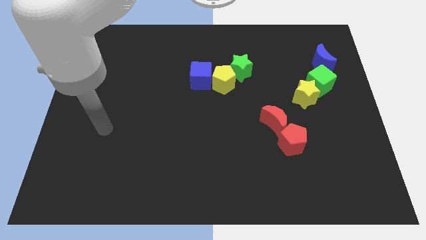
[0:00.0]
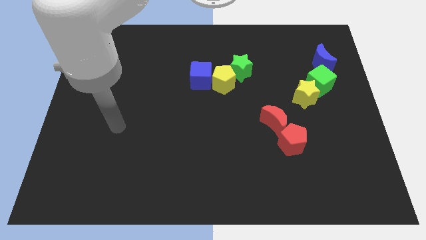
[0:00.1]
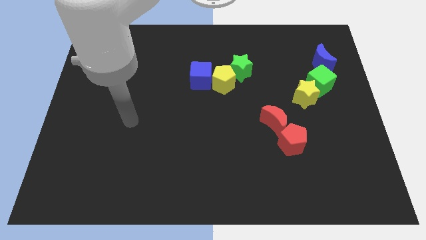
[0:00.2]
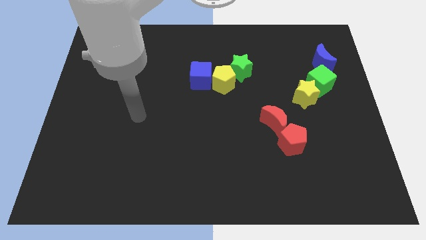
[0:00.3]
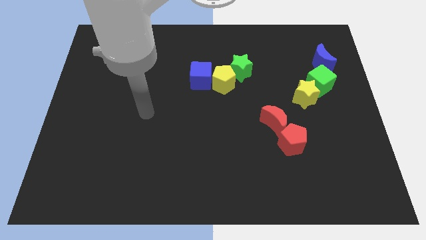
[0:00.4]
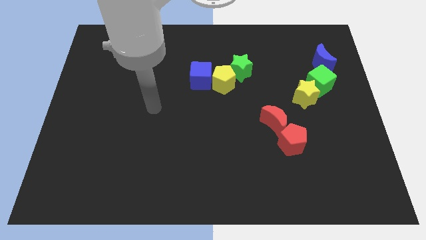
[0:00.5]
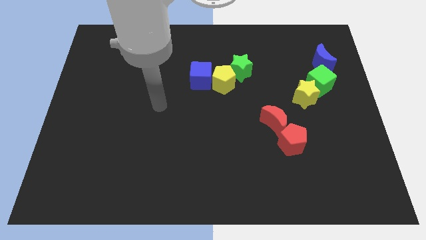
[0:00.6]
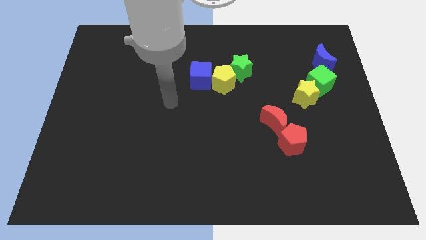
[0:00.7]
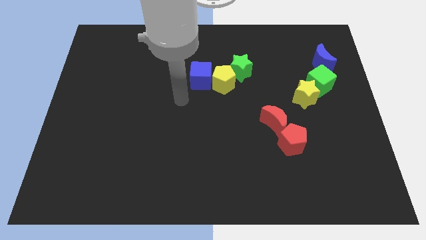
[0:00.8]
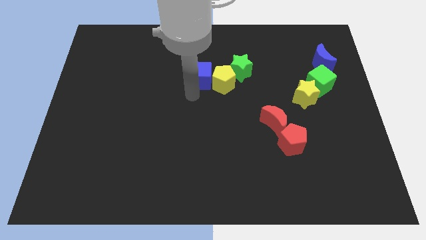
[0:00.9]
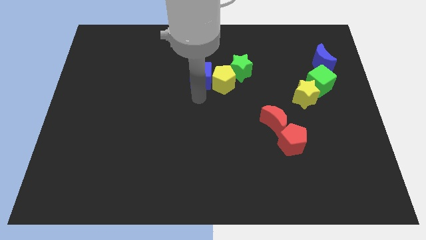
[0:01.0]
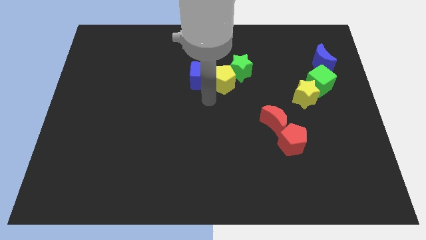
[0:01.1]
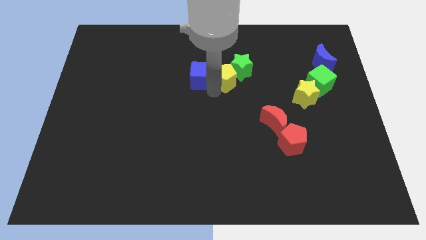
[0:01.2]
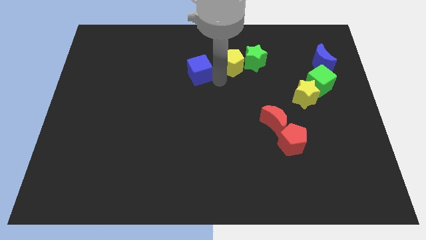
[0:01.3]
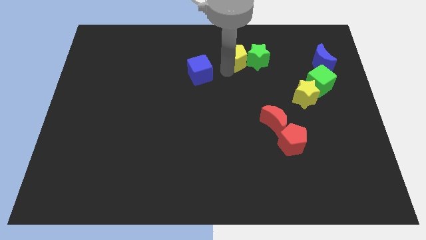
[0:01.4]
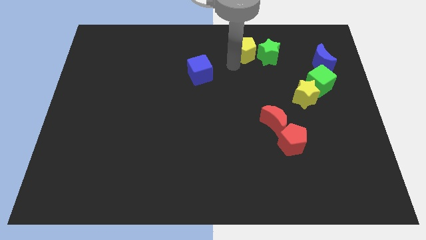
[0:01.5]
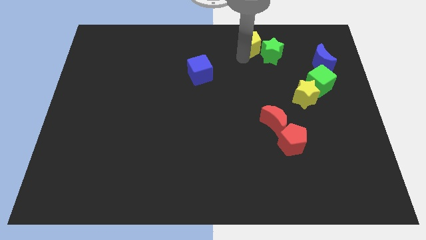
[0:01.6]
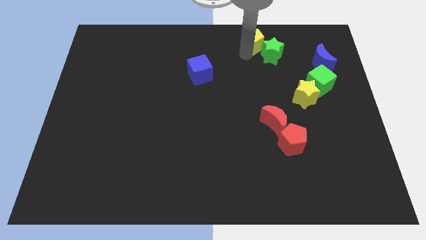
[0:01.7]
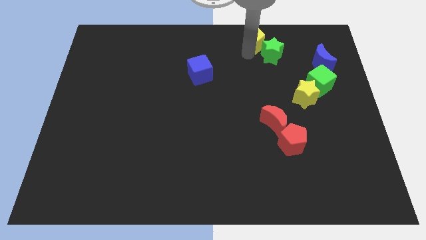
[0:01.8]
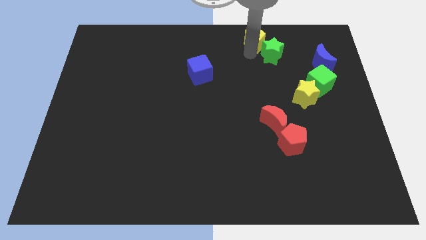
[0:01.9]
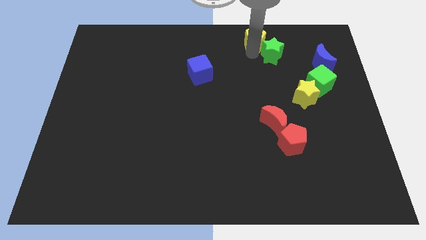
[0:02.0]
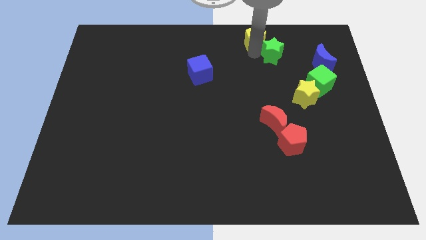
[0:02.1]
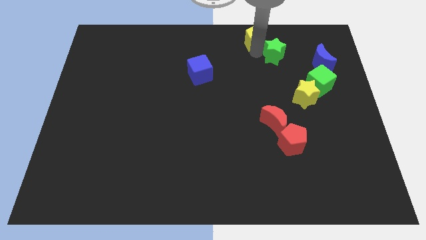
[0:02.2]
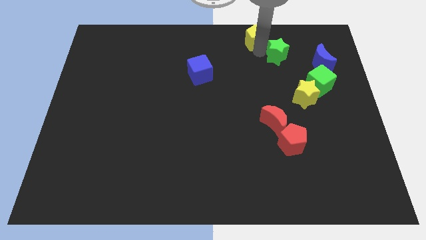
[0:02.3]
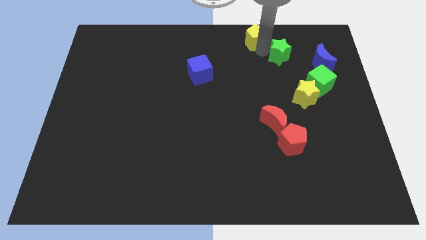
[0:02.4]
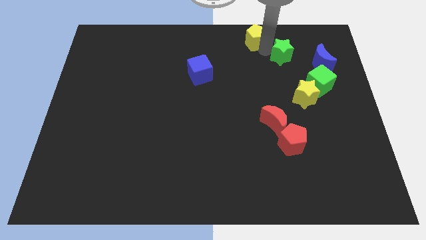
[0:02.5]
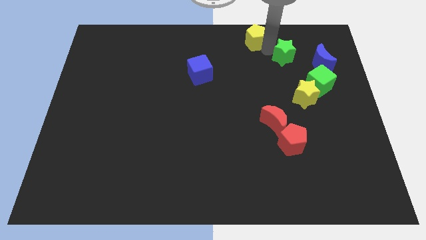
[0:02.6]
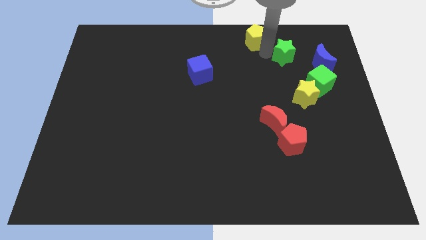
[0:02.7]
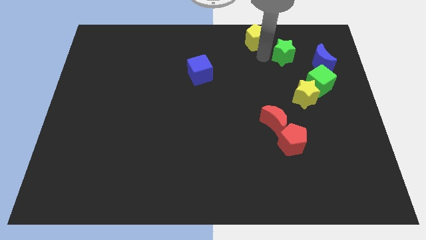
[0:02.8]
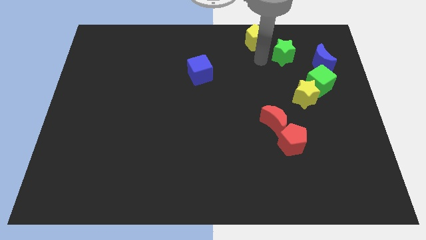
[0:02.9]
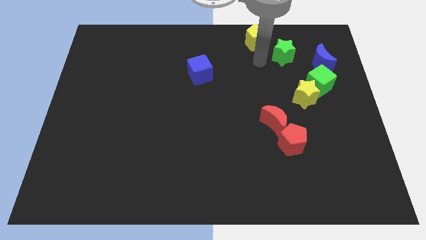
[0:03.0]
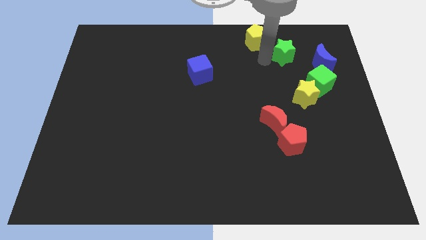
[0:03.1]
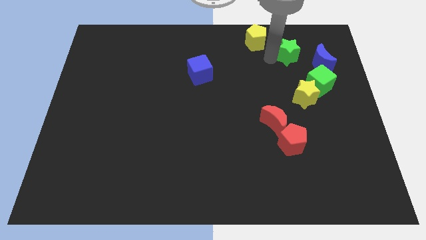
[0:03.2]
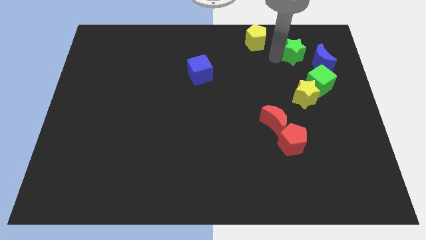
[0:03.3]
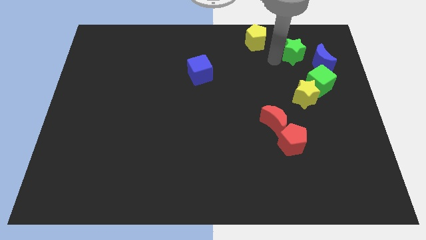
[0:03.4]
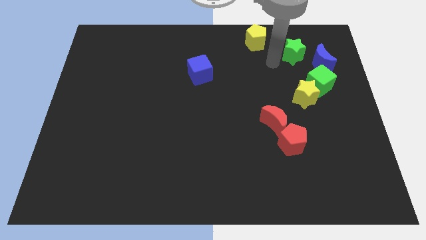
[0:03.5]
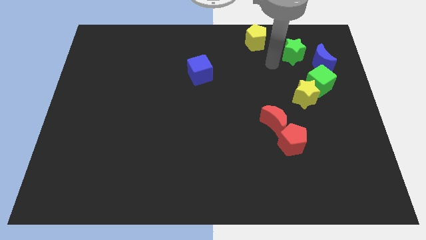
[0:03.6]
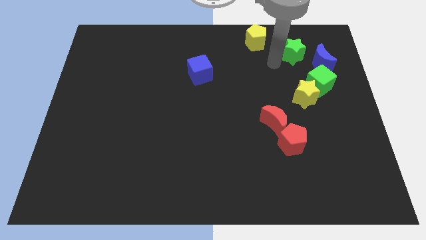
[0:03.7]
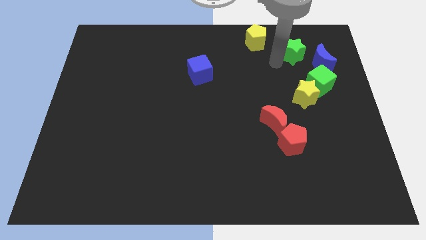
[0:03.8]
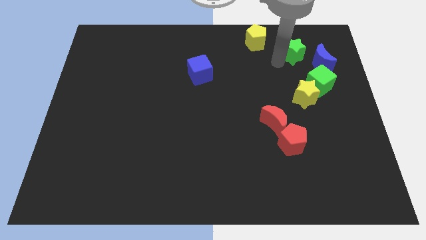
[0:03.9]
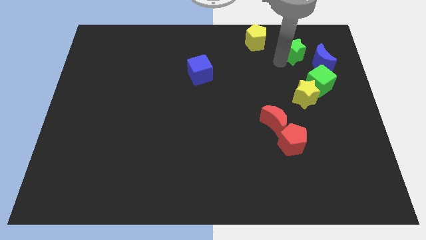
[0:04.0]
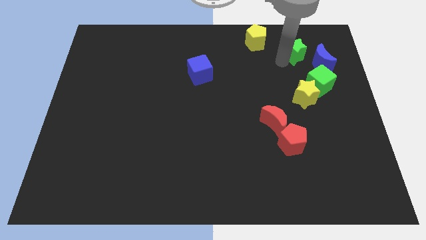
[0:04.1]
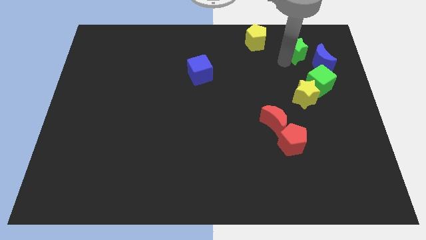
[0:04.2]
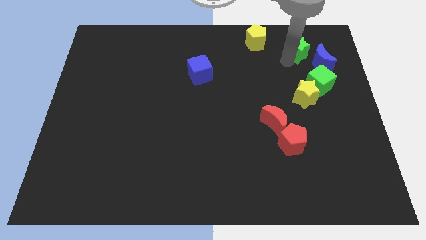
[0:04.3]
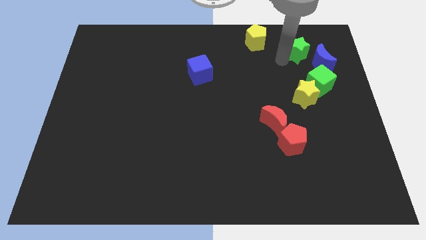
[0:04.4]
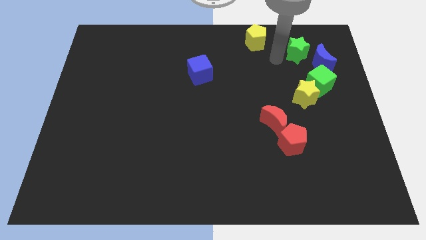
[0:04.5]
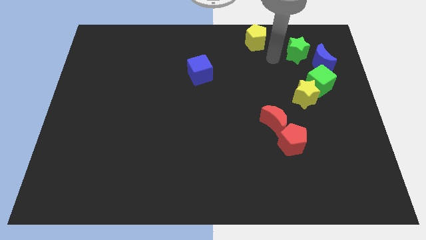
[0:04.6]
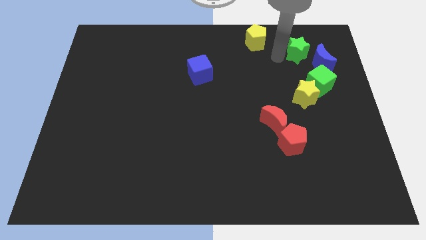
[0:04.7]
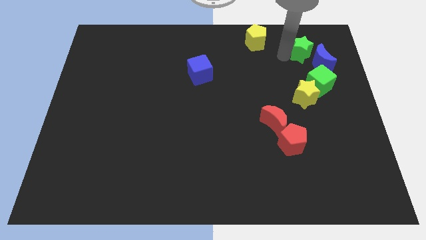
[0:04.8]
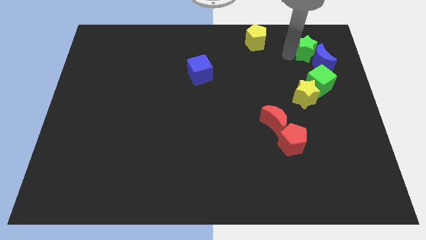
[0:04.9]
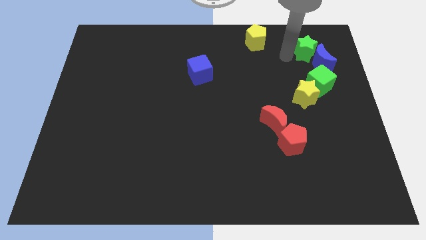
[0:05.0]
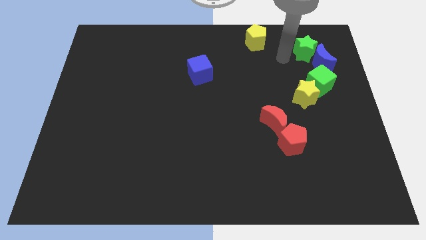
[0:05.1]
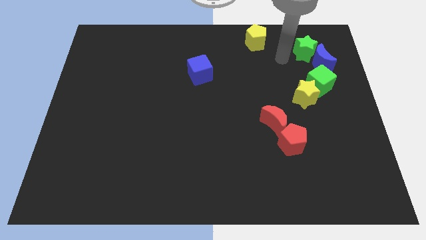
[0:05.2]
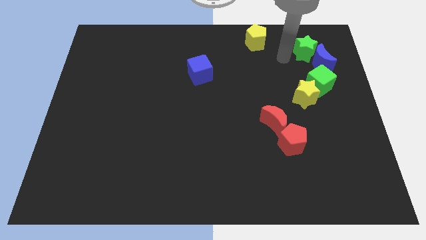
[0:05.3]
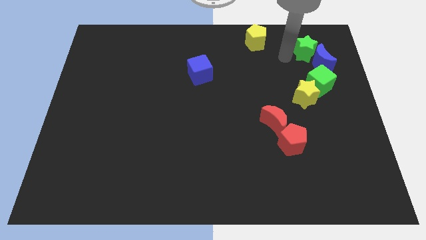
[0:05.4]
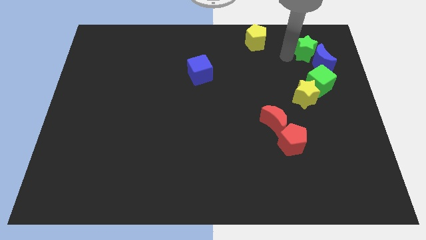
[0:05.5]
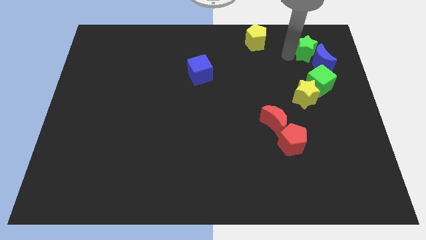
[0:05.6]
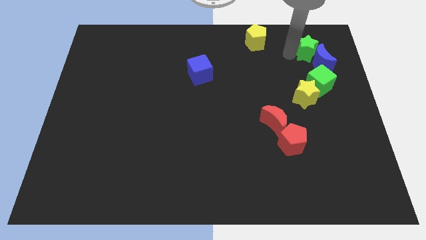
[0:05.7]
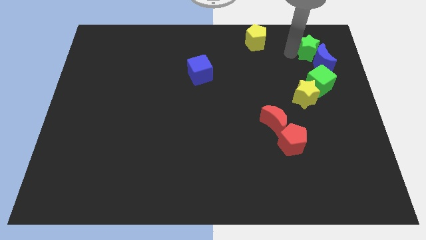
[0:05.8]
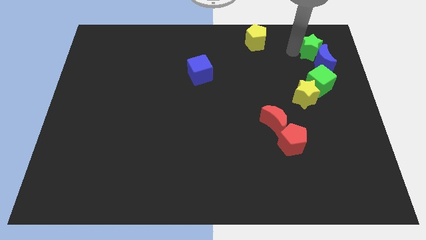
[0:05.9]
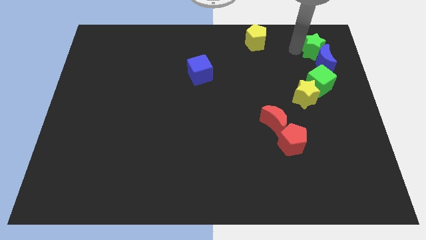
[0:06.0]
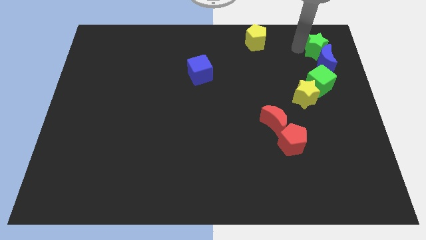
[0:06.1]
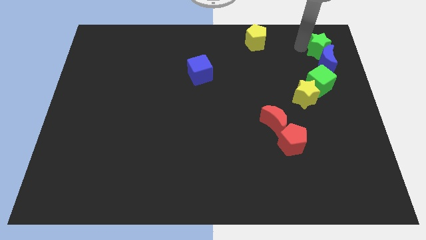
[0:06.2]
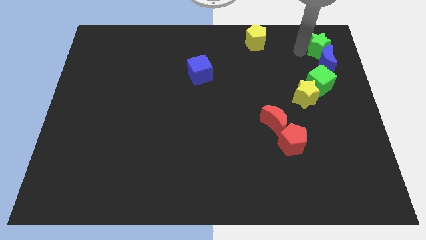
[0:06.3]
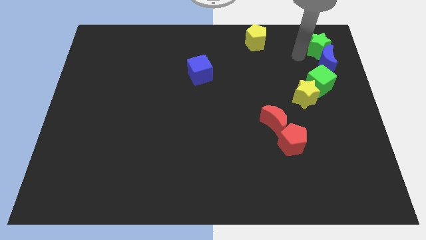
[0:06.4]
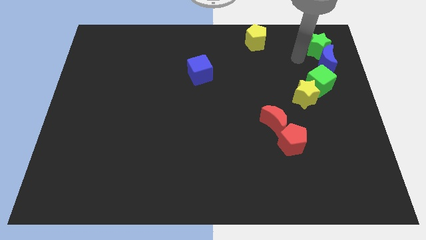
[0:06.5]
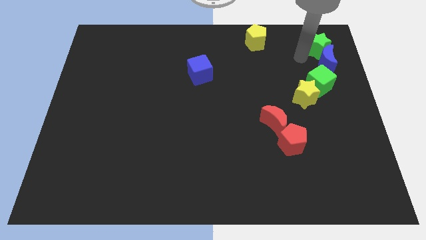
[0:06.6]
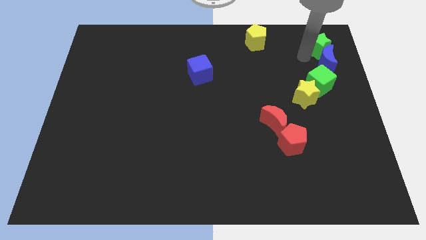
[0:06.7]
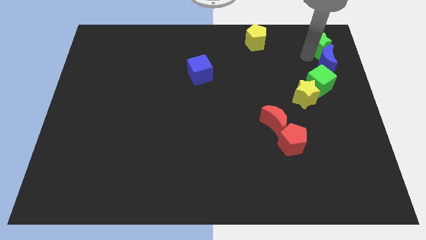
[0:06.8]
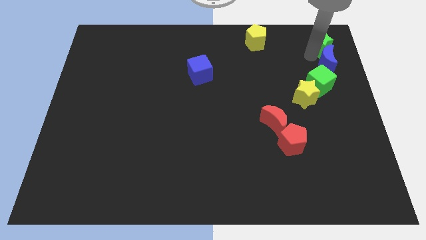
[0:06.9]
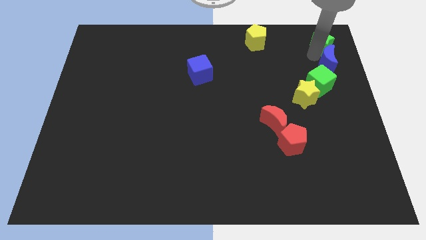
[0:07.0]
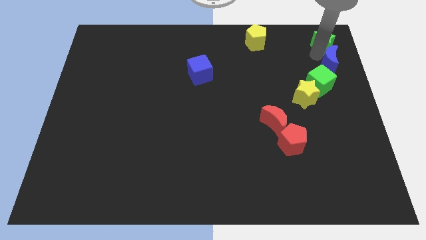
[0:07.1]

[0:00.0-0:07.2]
slide the green star to the upper right corner
